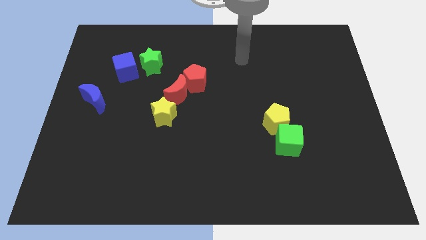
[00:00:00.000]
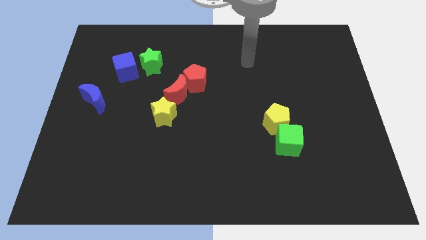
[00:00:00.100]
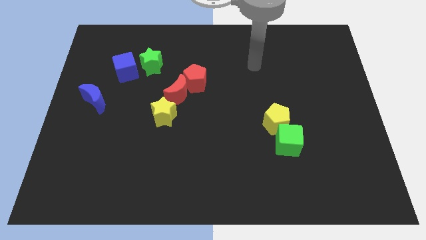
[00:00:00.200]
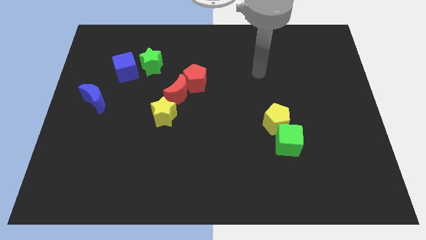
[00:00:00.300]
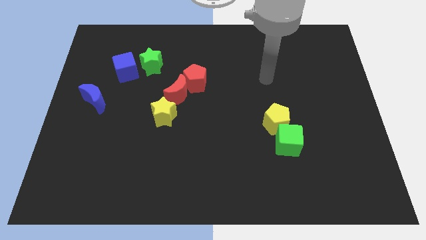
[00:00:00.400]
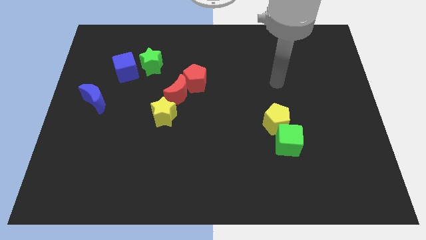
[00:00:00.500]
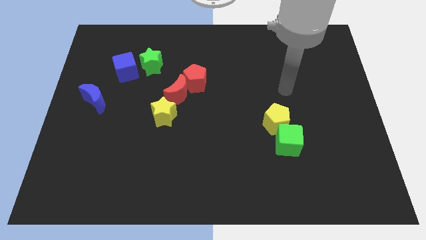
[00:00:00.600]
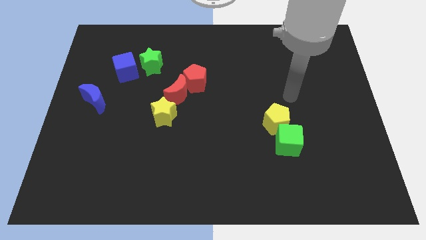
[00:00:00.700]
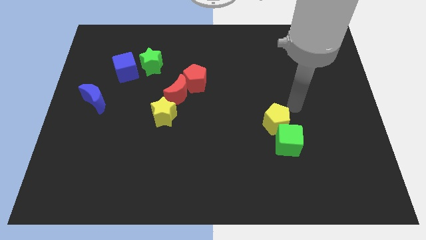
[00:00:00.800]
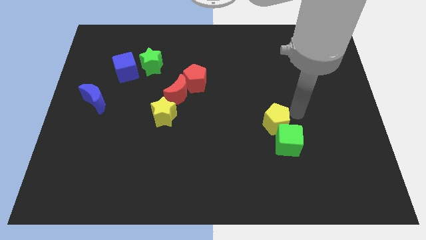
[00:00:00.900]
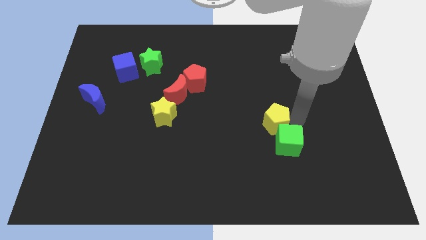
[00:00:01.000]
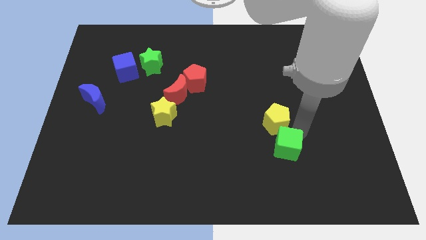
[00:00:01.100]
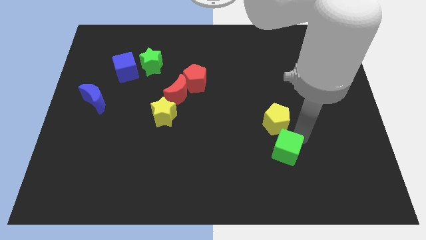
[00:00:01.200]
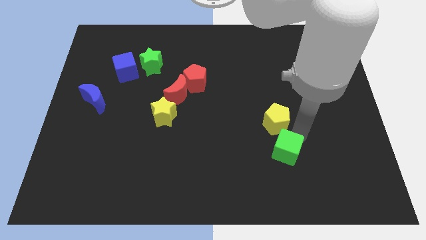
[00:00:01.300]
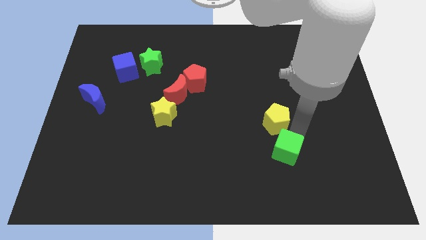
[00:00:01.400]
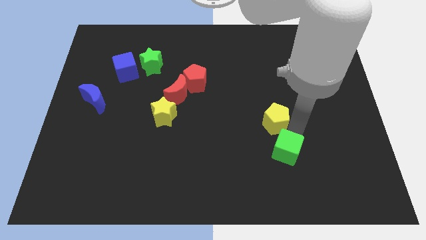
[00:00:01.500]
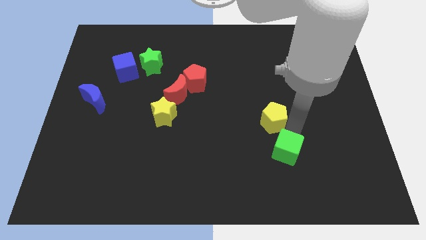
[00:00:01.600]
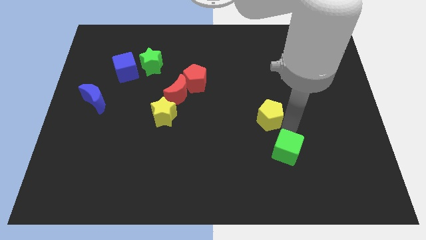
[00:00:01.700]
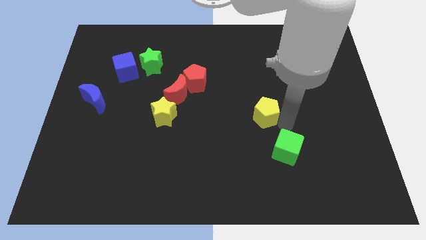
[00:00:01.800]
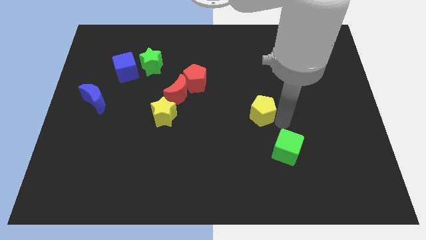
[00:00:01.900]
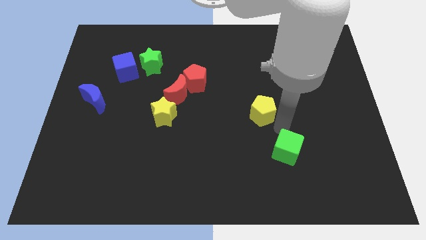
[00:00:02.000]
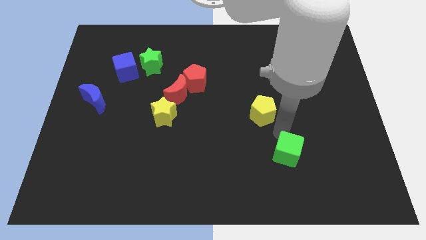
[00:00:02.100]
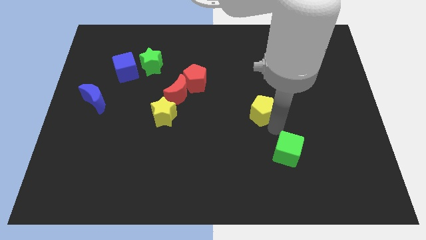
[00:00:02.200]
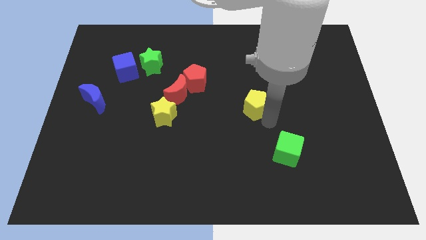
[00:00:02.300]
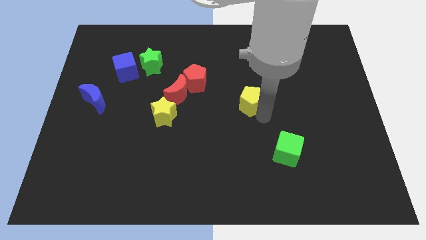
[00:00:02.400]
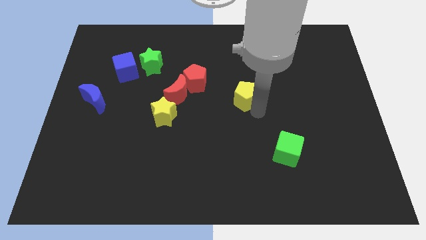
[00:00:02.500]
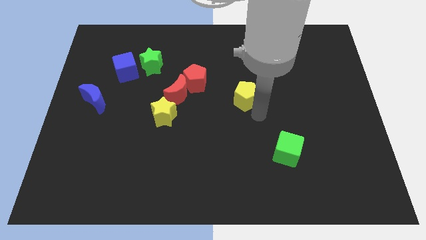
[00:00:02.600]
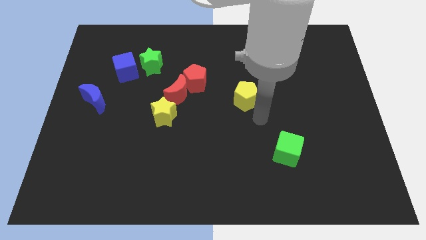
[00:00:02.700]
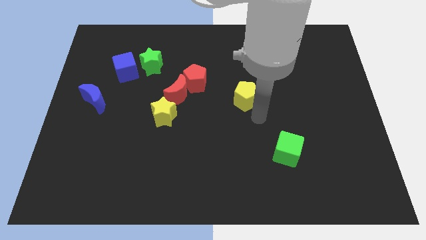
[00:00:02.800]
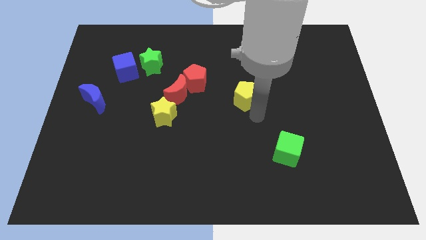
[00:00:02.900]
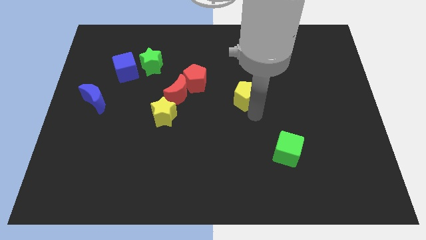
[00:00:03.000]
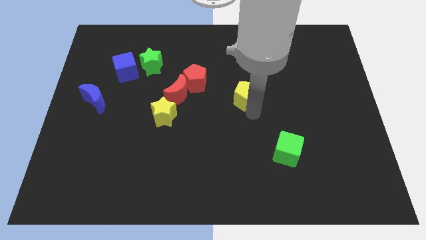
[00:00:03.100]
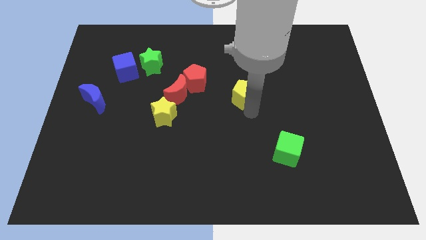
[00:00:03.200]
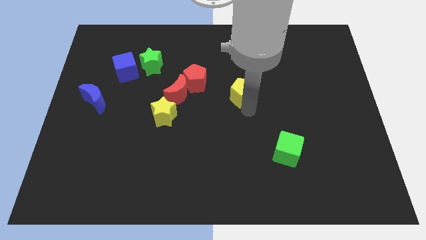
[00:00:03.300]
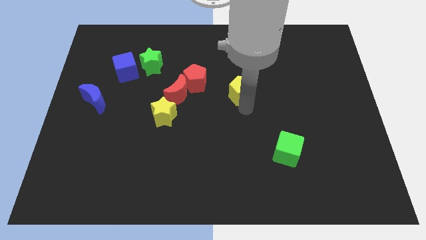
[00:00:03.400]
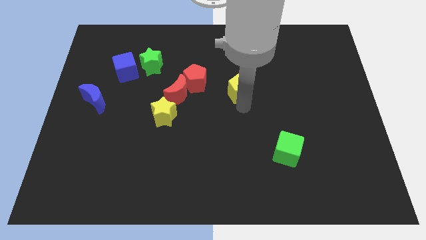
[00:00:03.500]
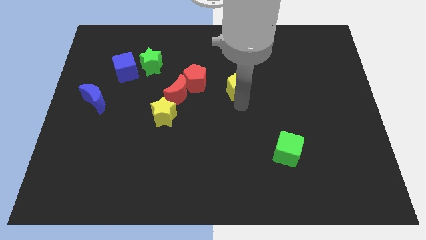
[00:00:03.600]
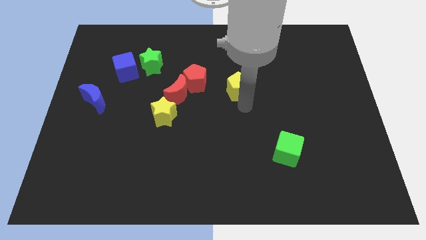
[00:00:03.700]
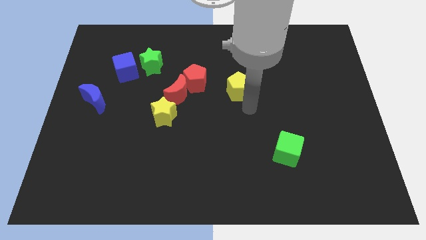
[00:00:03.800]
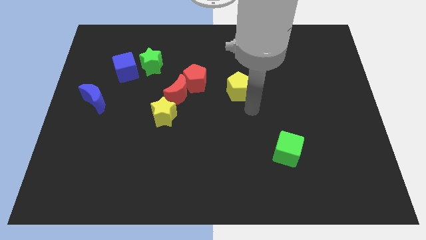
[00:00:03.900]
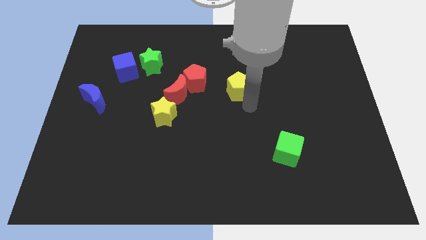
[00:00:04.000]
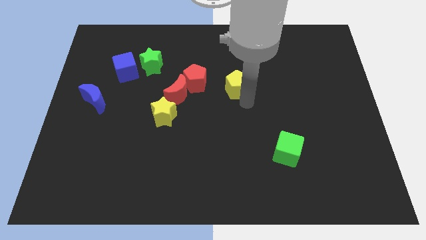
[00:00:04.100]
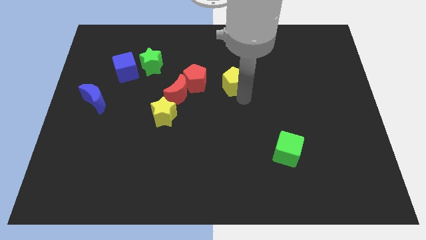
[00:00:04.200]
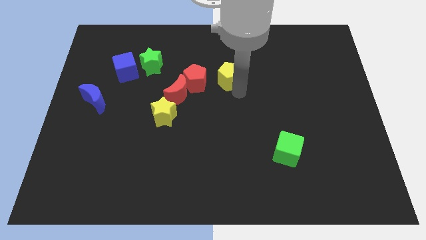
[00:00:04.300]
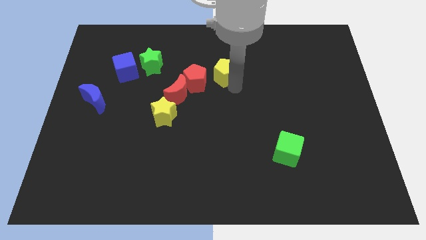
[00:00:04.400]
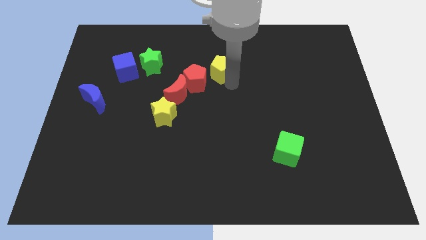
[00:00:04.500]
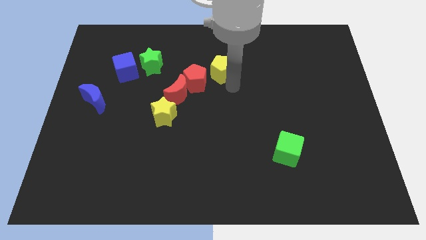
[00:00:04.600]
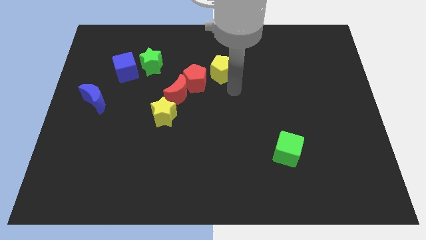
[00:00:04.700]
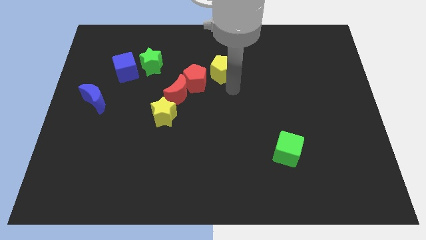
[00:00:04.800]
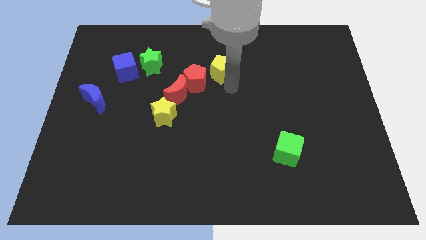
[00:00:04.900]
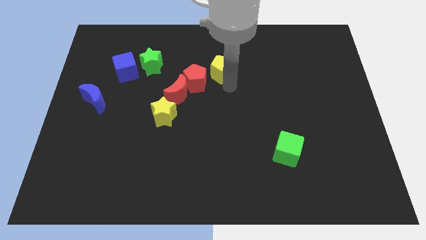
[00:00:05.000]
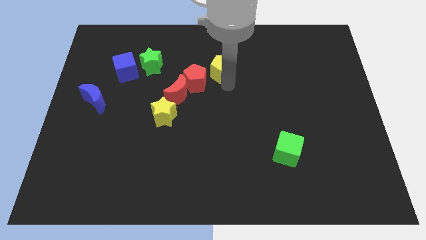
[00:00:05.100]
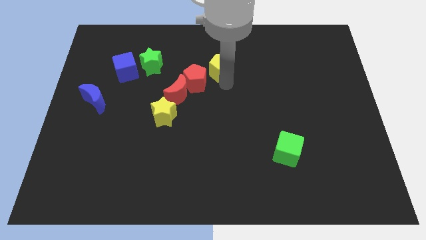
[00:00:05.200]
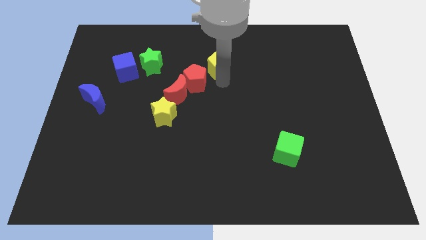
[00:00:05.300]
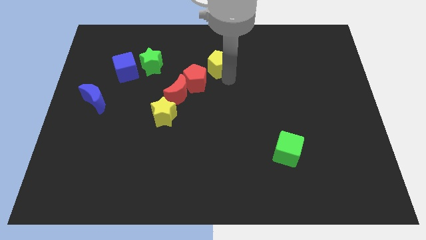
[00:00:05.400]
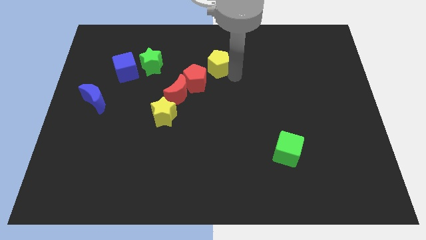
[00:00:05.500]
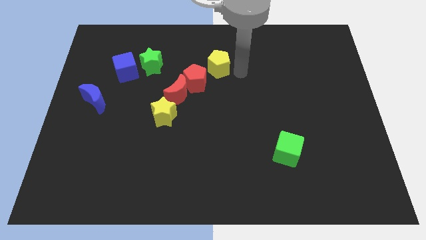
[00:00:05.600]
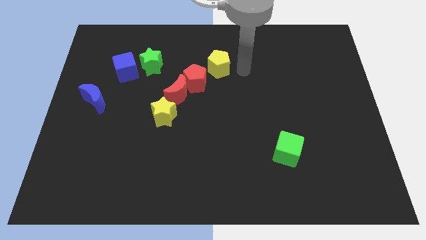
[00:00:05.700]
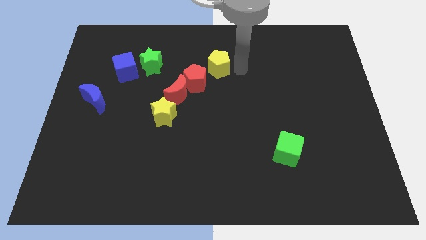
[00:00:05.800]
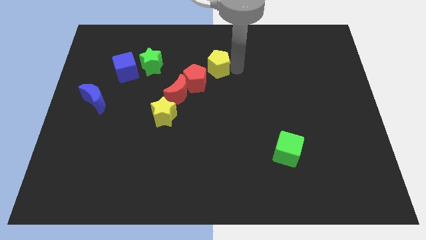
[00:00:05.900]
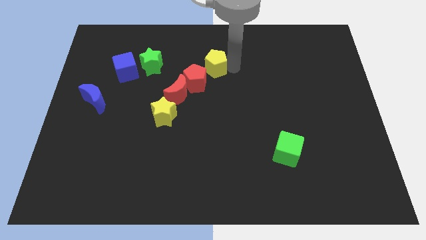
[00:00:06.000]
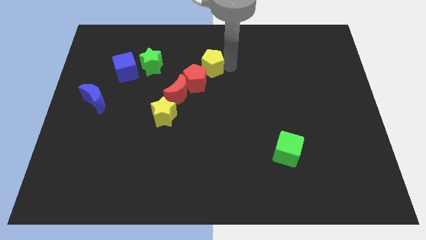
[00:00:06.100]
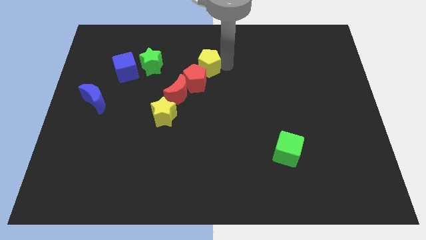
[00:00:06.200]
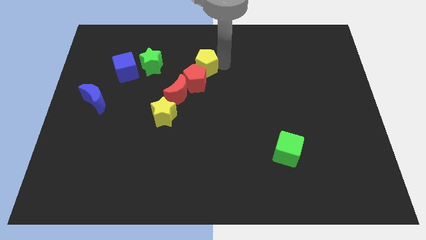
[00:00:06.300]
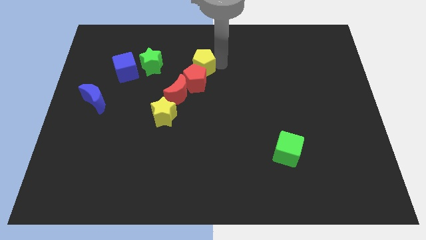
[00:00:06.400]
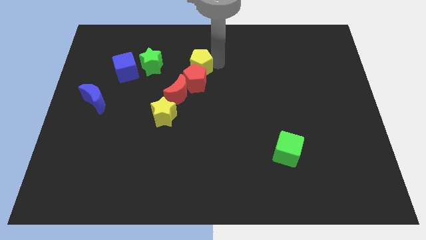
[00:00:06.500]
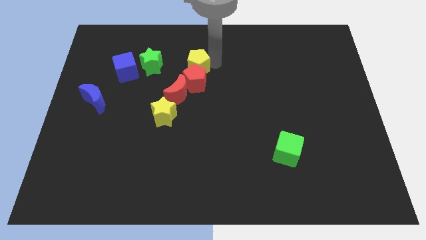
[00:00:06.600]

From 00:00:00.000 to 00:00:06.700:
move the yellow pentagon to the top side of the red moon
